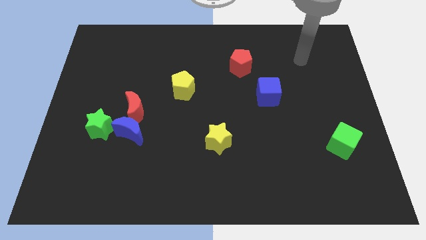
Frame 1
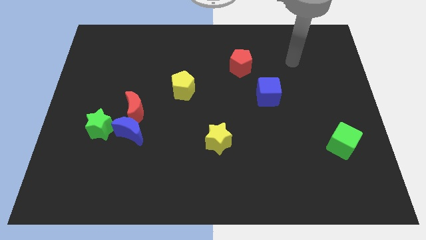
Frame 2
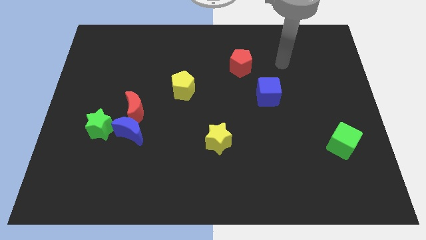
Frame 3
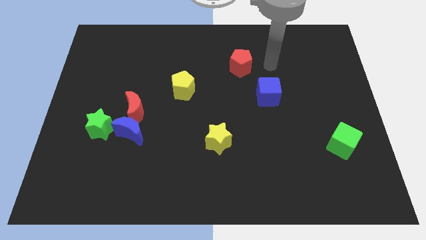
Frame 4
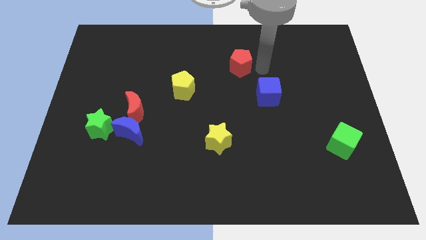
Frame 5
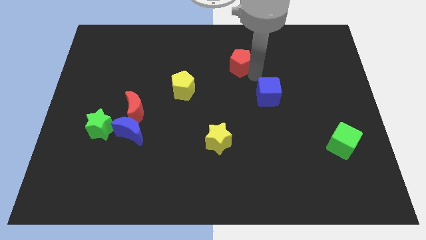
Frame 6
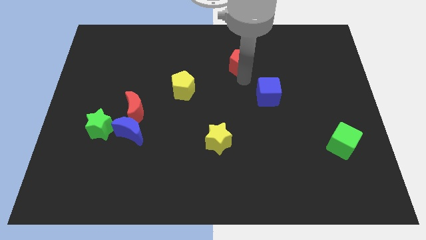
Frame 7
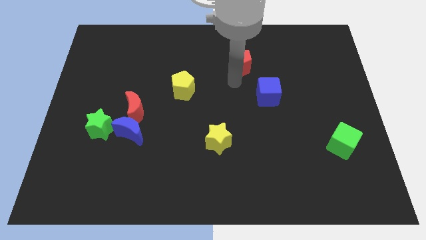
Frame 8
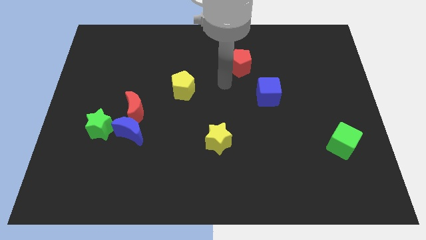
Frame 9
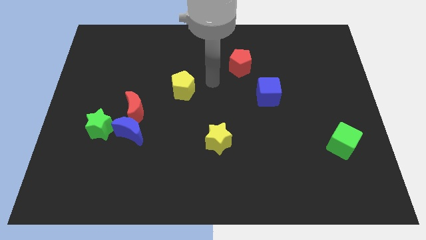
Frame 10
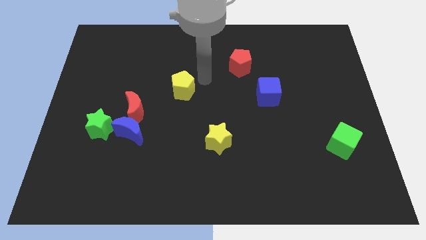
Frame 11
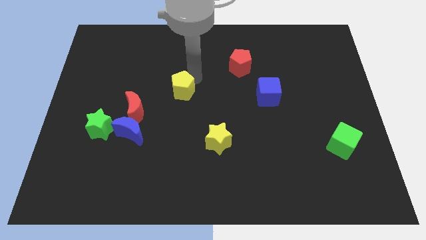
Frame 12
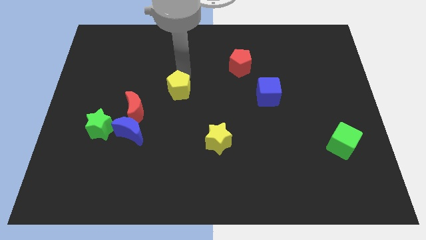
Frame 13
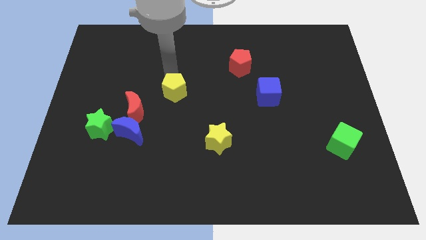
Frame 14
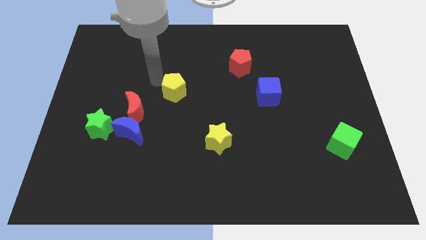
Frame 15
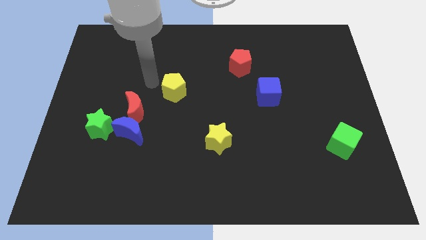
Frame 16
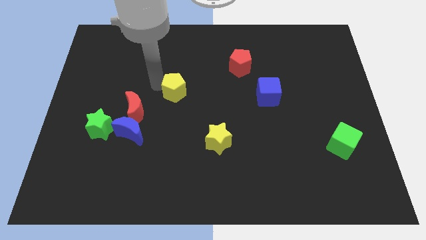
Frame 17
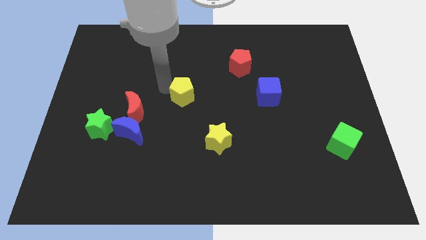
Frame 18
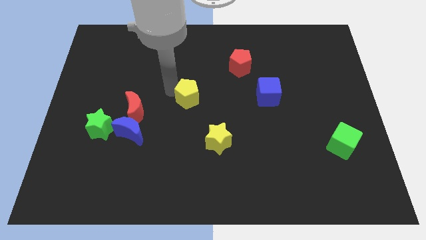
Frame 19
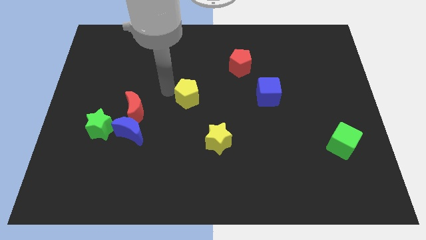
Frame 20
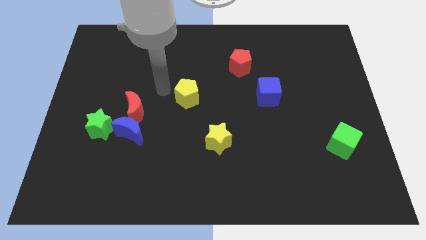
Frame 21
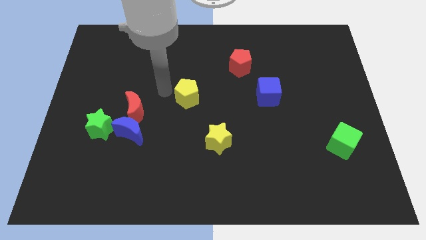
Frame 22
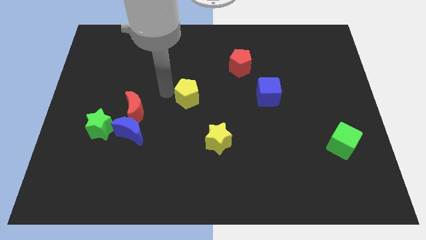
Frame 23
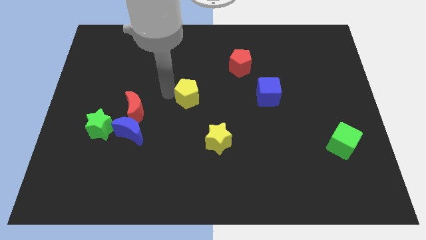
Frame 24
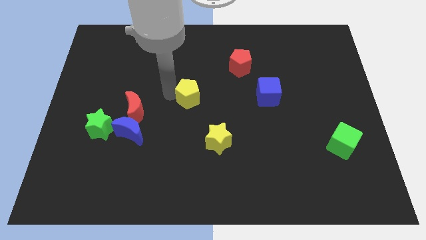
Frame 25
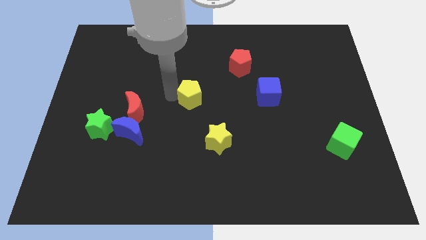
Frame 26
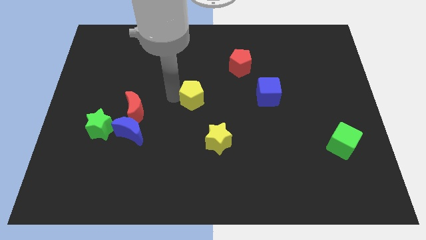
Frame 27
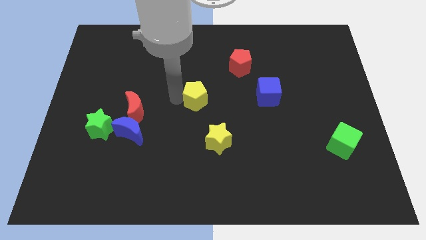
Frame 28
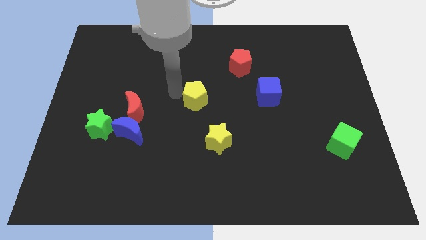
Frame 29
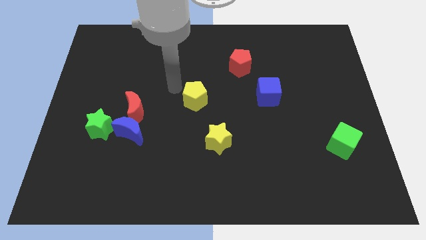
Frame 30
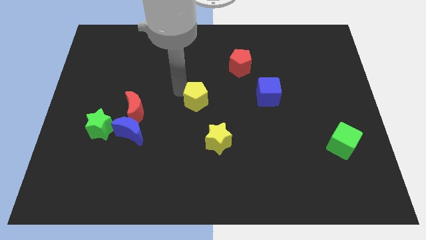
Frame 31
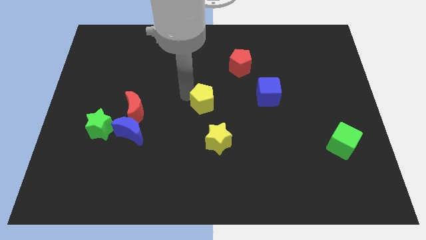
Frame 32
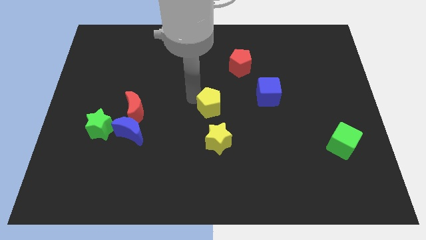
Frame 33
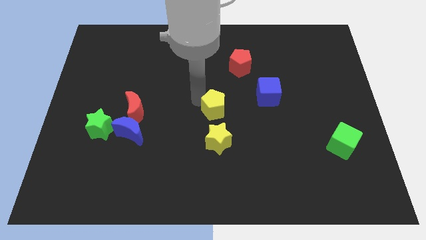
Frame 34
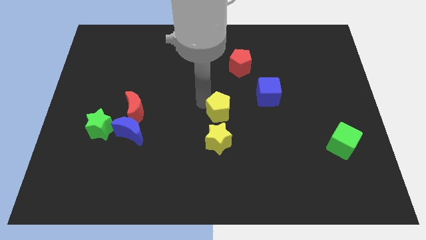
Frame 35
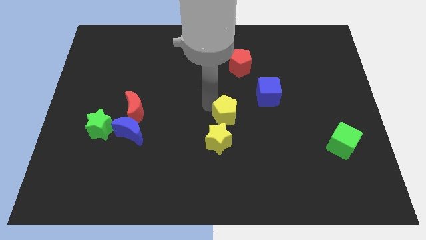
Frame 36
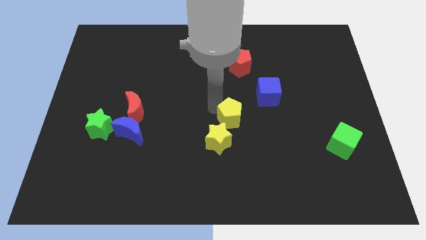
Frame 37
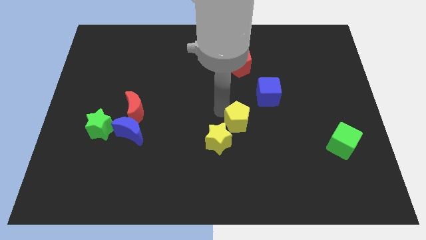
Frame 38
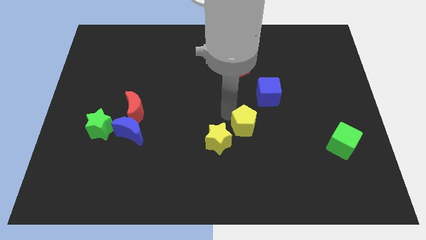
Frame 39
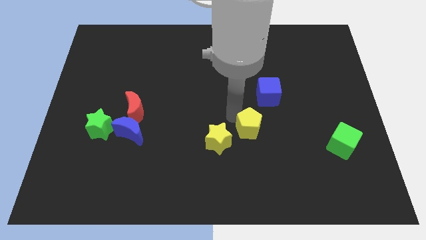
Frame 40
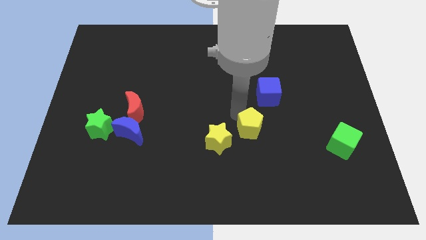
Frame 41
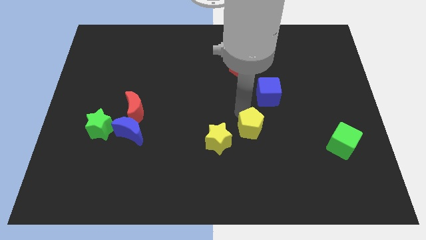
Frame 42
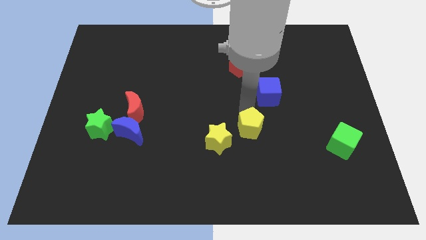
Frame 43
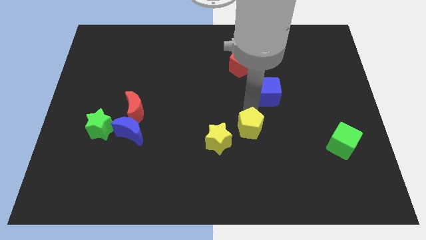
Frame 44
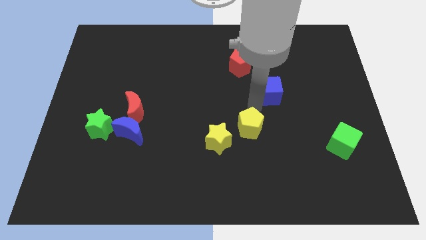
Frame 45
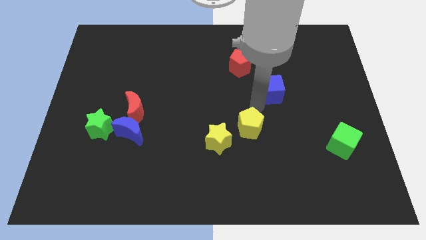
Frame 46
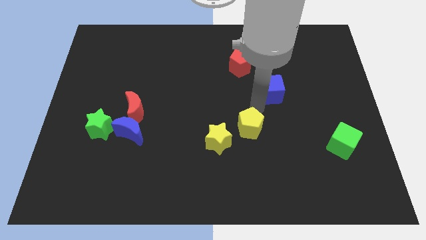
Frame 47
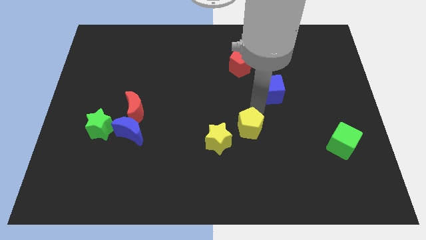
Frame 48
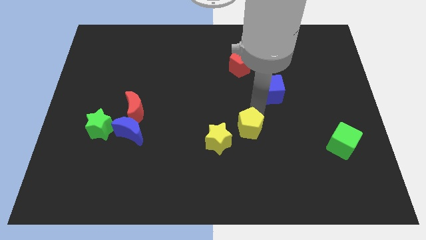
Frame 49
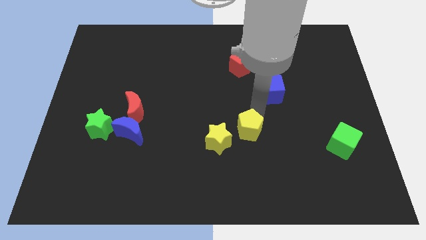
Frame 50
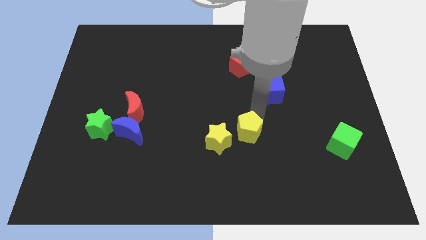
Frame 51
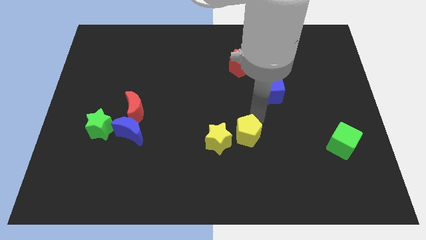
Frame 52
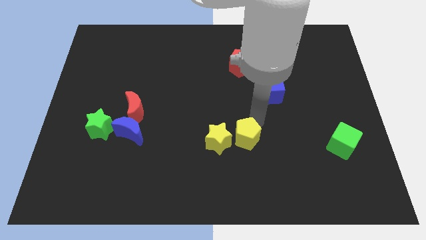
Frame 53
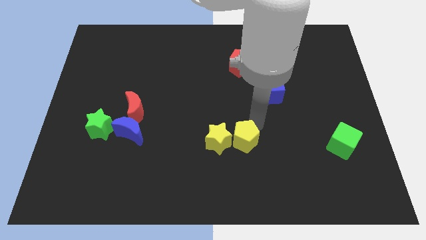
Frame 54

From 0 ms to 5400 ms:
move the yellow pentagon to the bottom right side of the yellow star

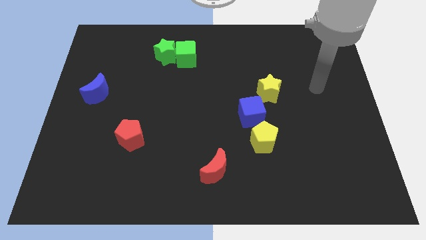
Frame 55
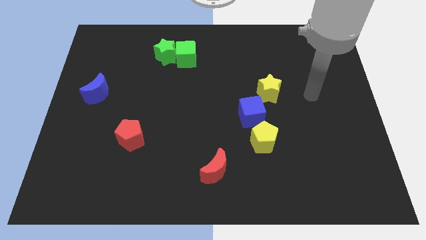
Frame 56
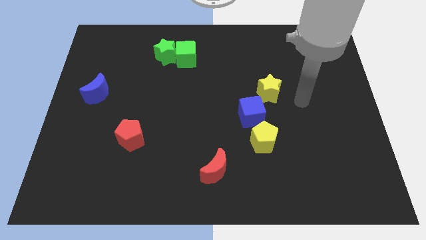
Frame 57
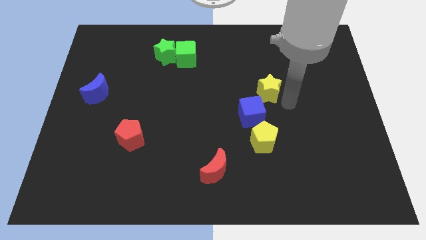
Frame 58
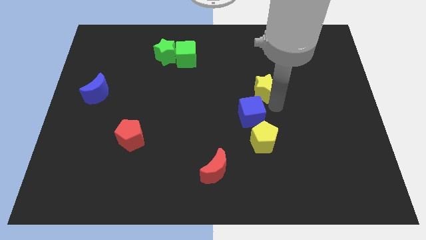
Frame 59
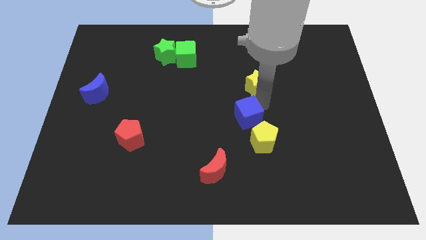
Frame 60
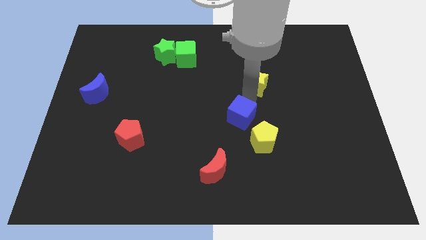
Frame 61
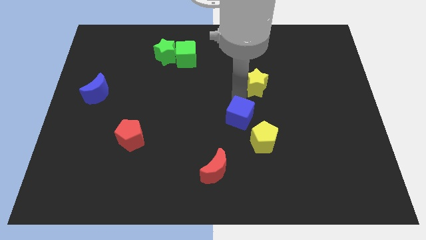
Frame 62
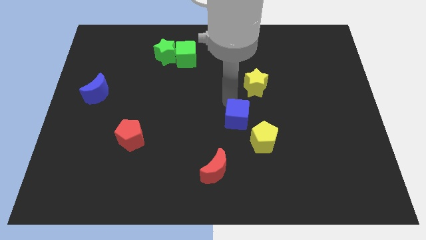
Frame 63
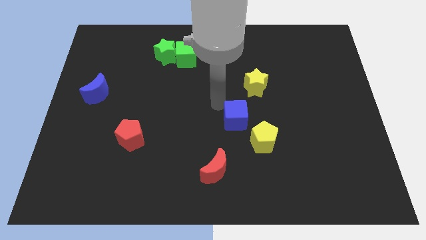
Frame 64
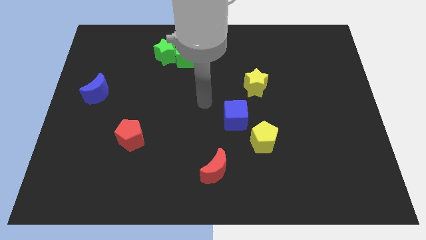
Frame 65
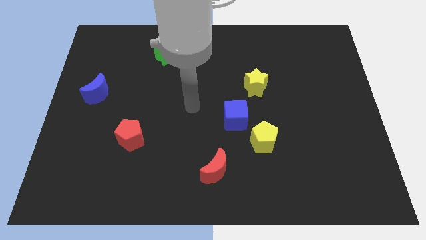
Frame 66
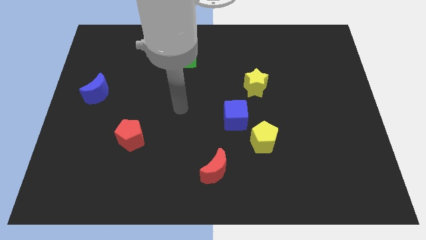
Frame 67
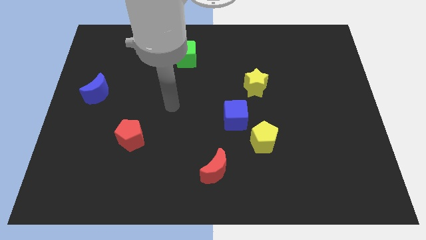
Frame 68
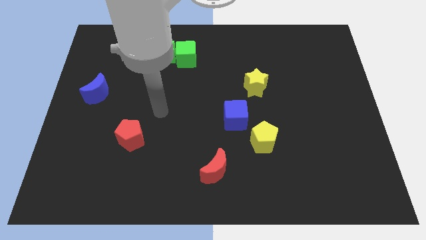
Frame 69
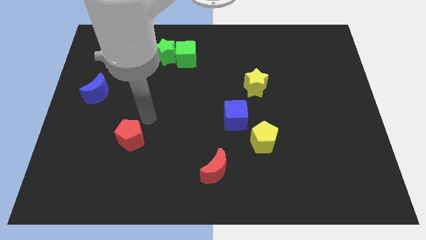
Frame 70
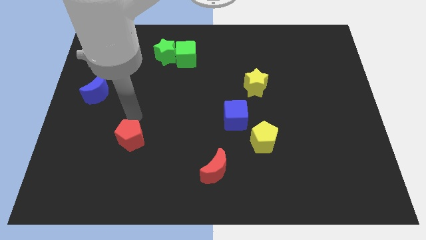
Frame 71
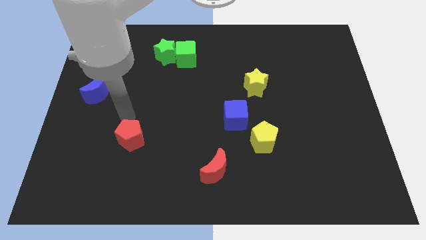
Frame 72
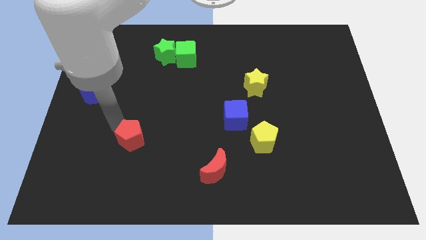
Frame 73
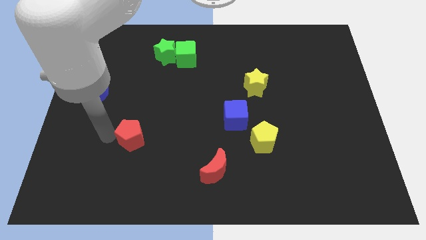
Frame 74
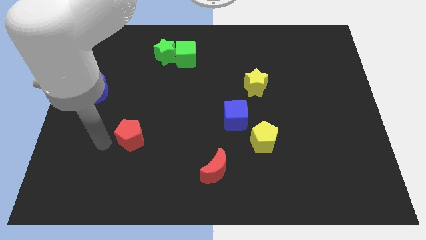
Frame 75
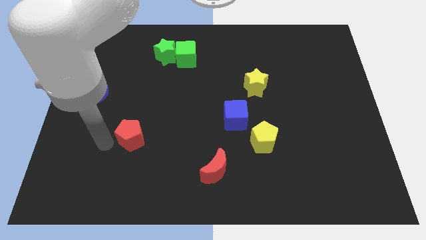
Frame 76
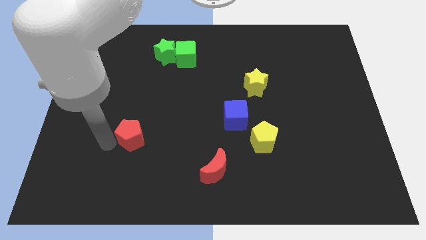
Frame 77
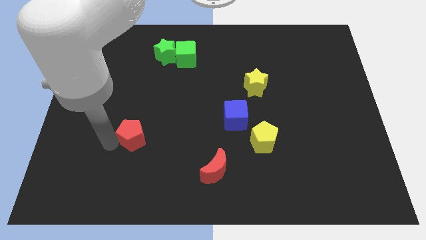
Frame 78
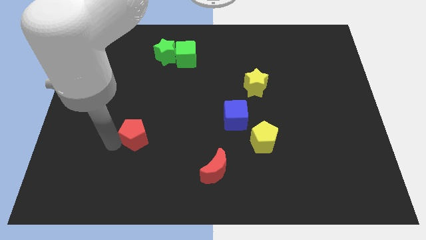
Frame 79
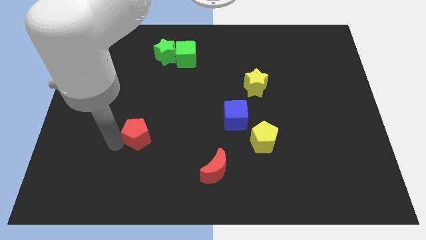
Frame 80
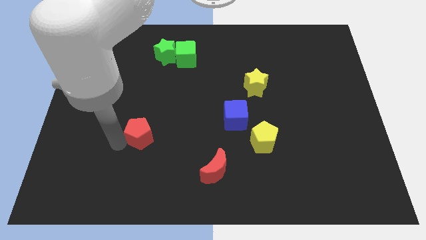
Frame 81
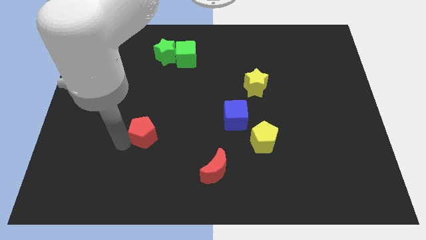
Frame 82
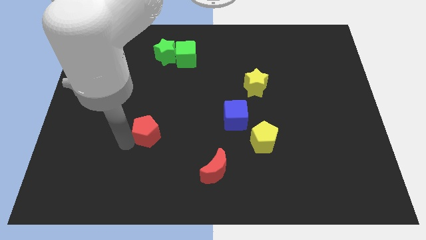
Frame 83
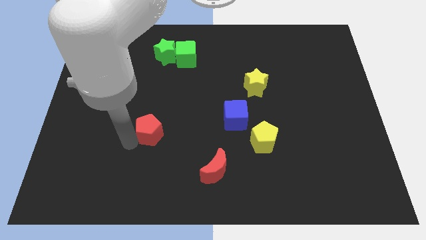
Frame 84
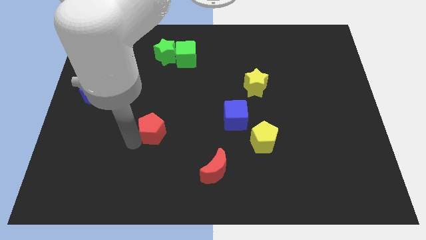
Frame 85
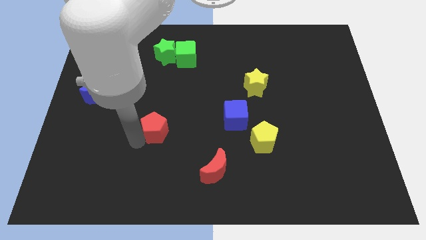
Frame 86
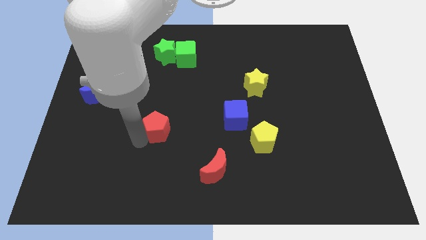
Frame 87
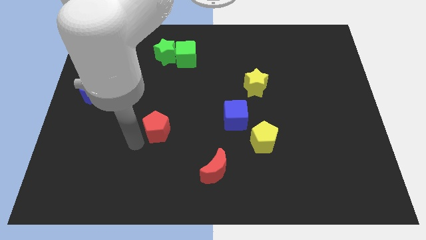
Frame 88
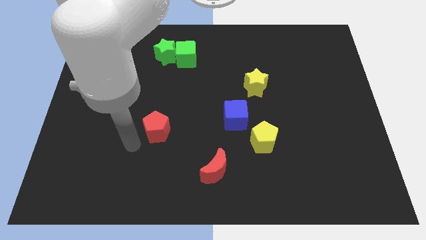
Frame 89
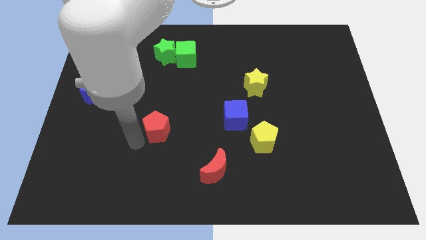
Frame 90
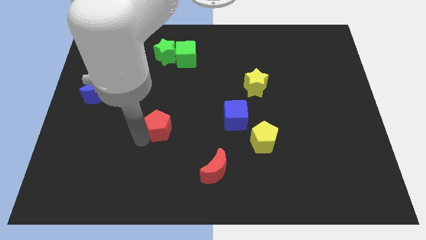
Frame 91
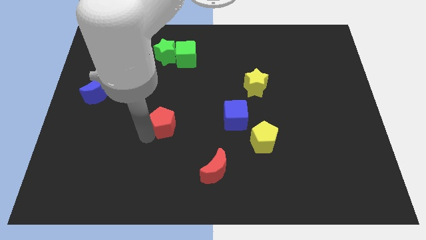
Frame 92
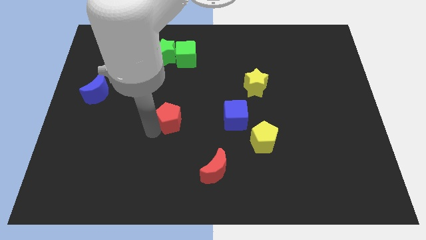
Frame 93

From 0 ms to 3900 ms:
push the red pentagon left of the blue cube
